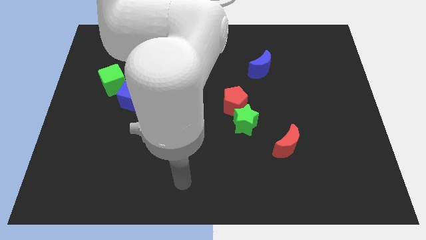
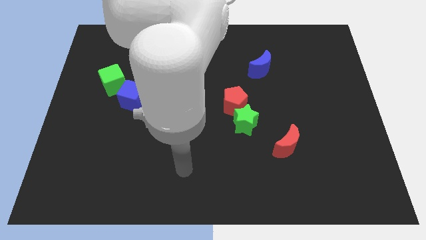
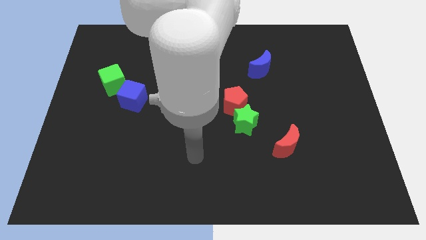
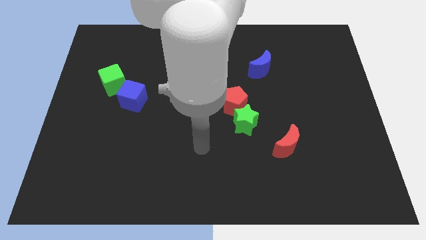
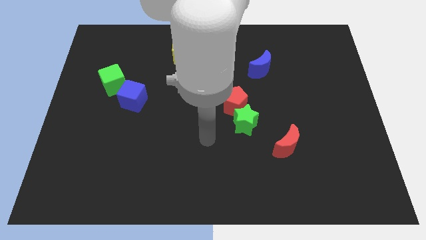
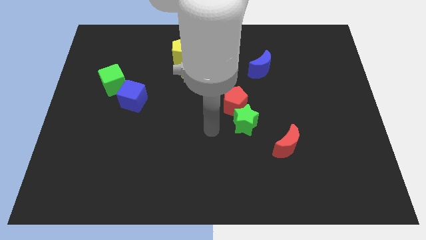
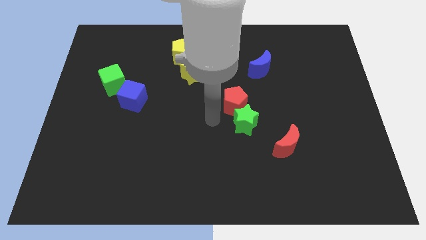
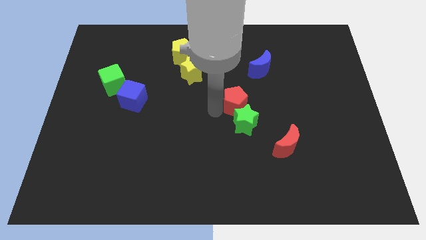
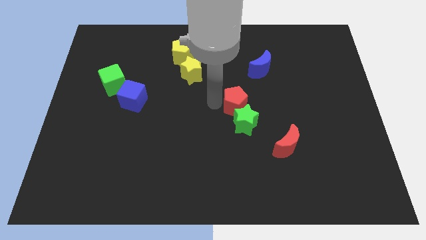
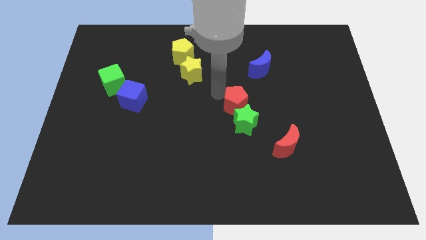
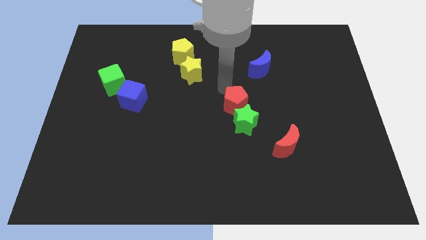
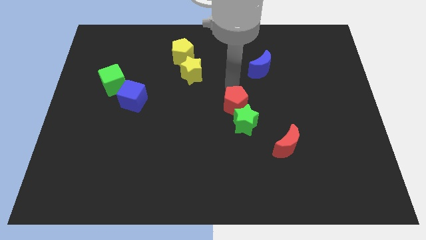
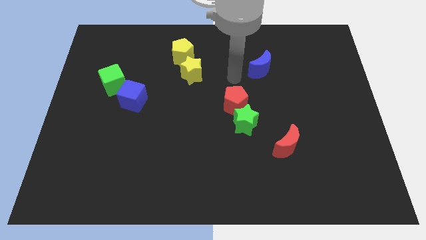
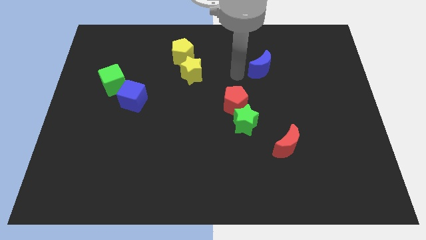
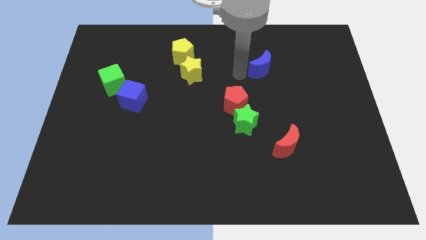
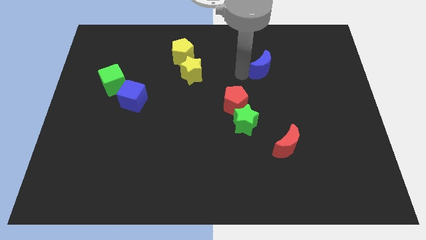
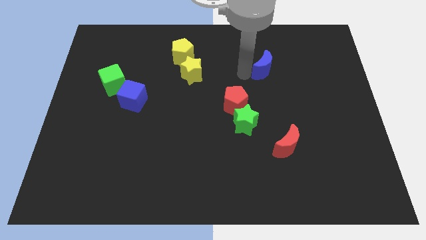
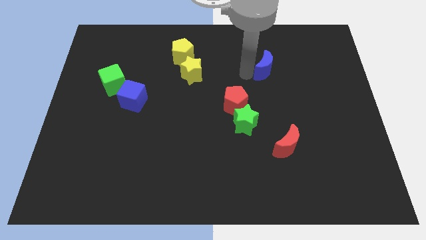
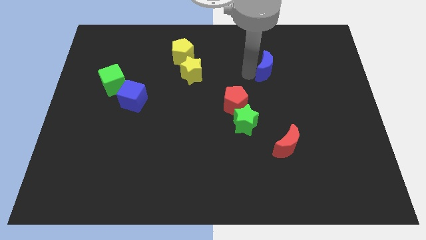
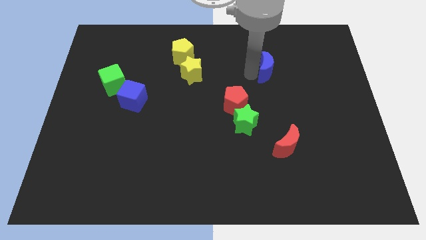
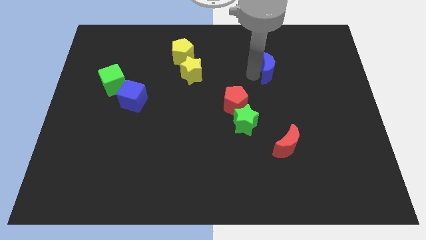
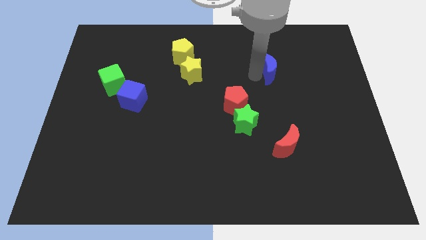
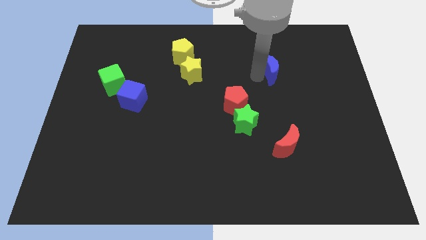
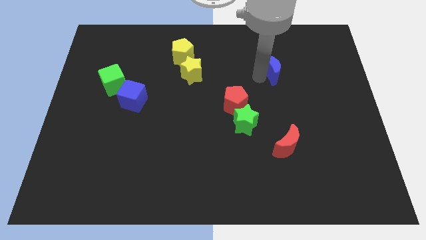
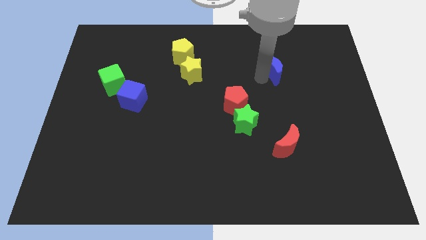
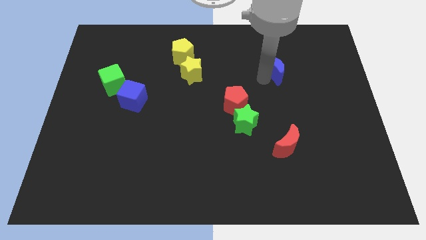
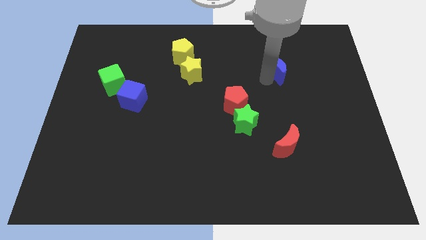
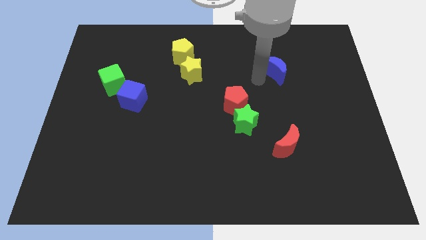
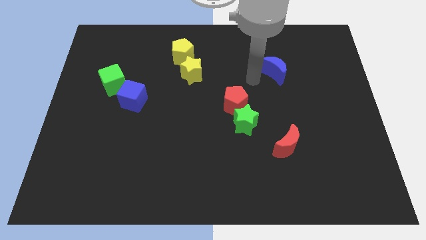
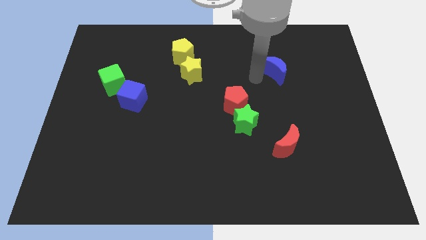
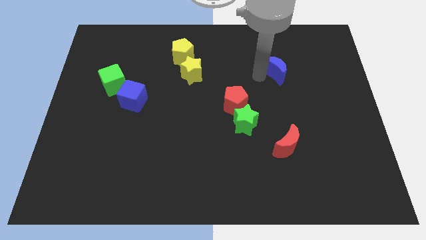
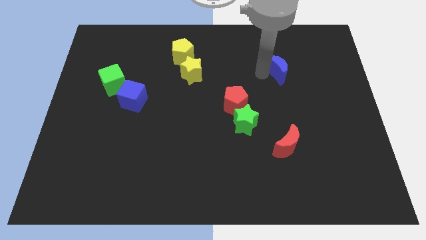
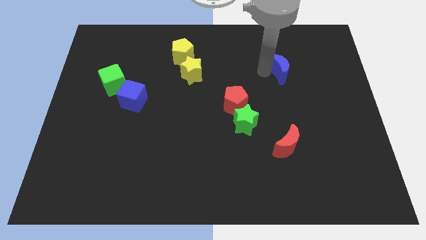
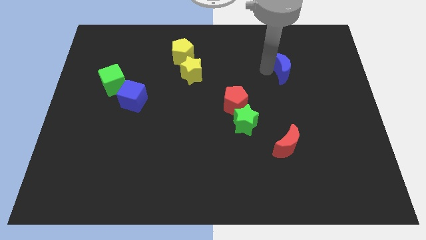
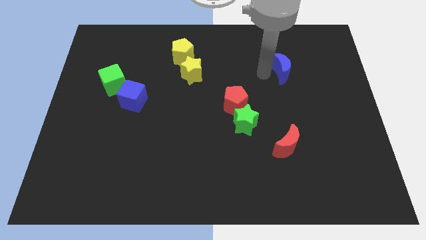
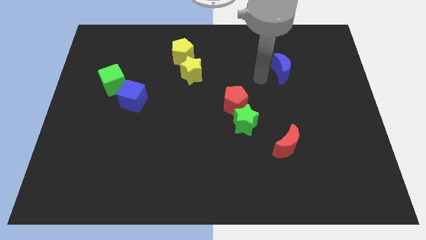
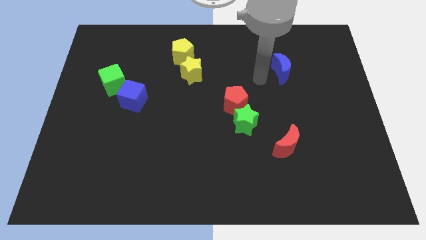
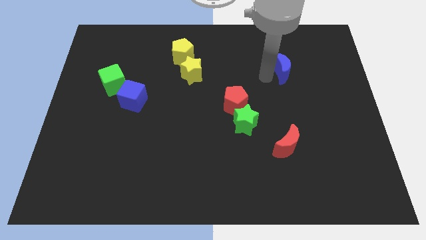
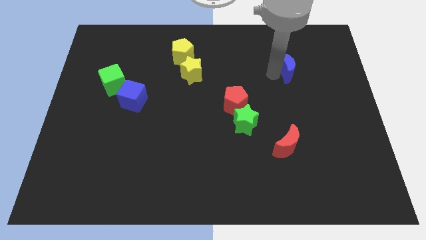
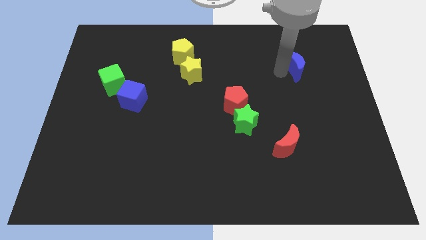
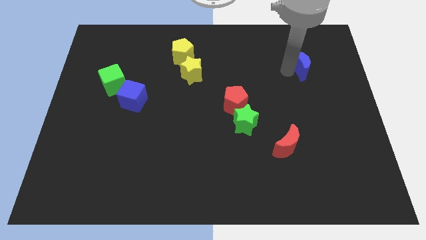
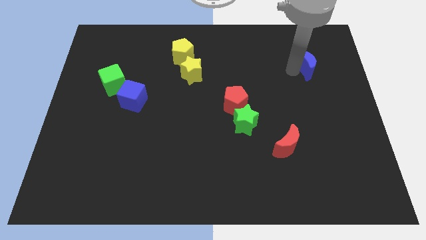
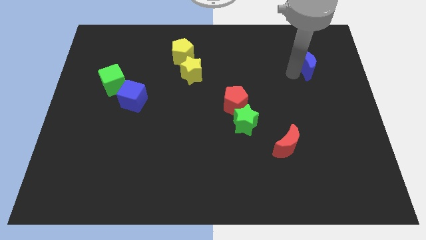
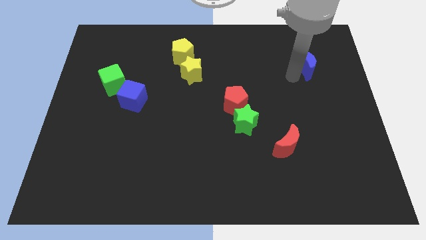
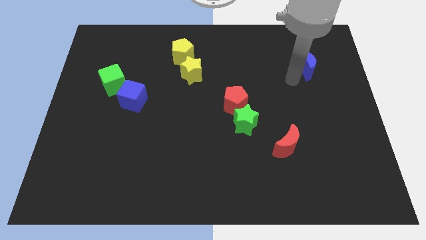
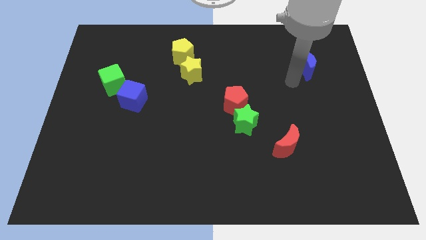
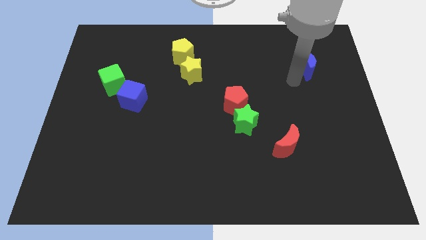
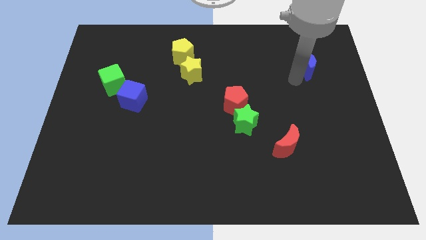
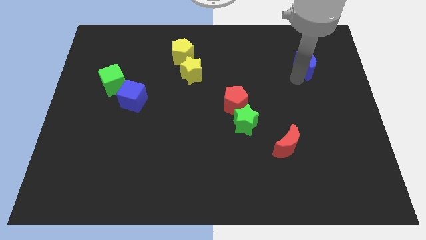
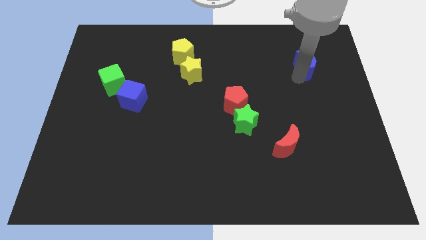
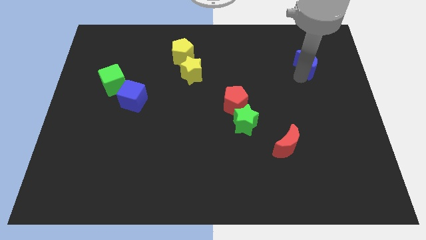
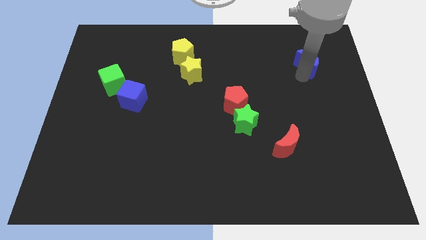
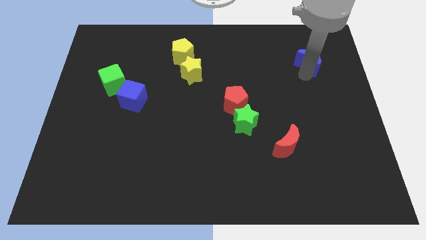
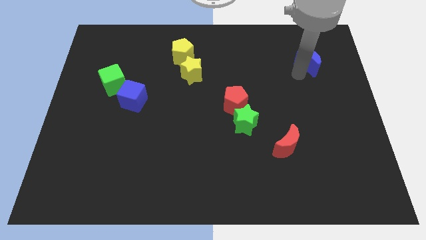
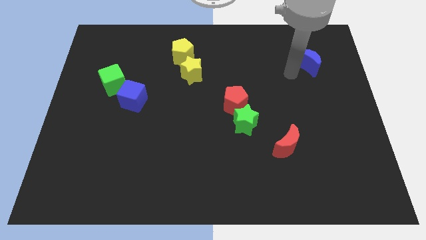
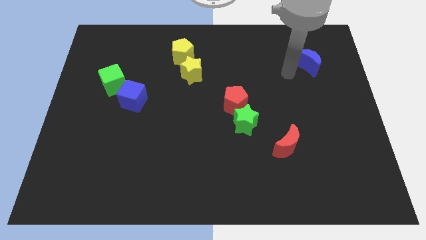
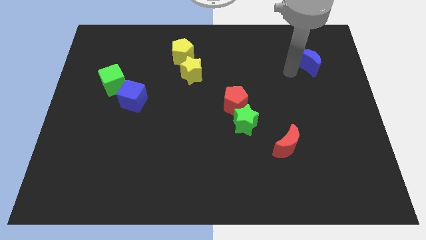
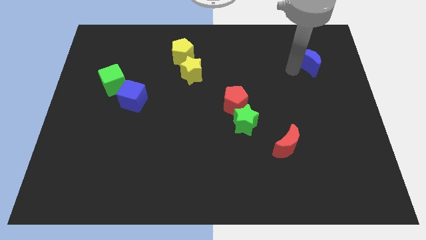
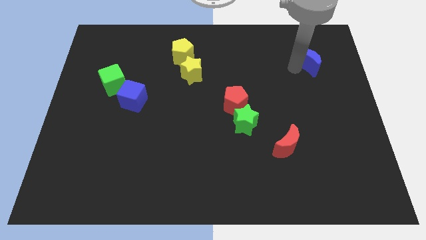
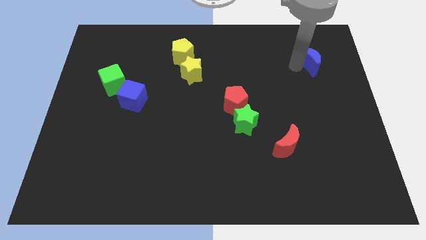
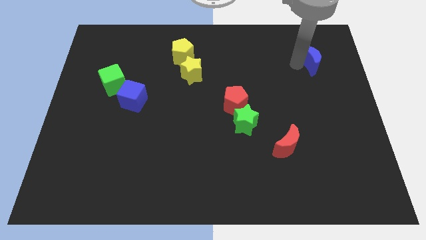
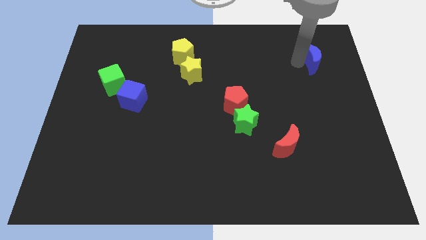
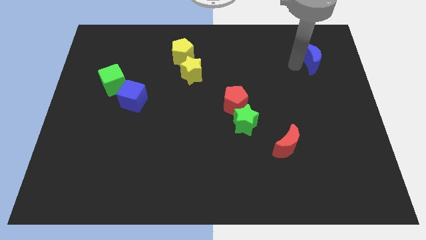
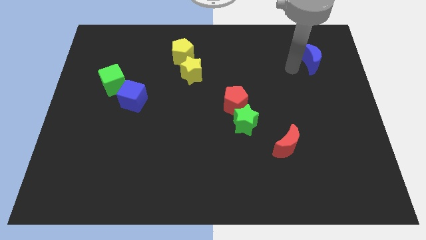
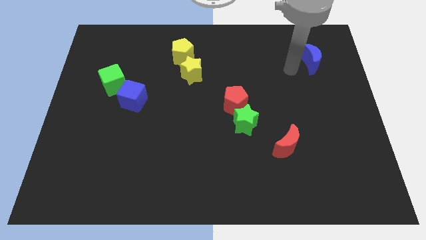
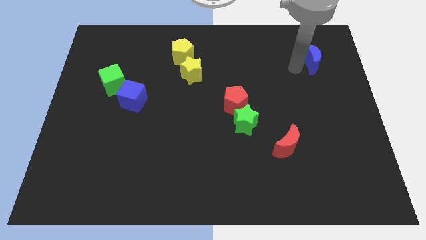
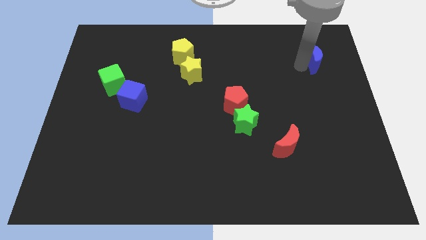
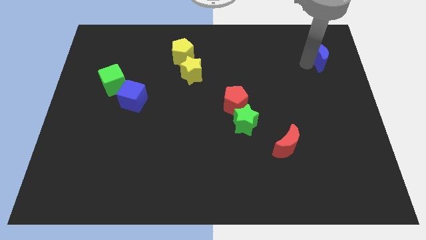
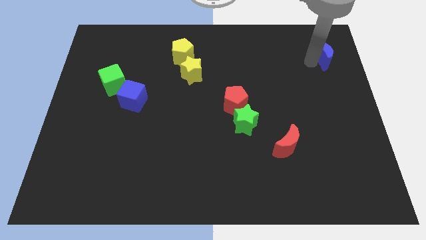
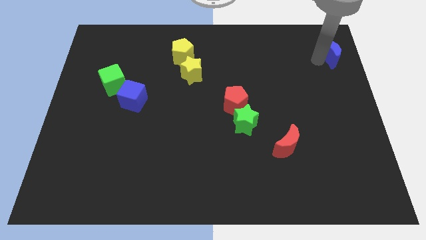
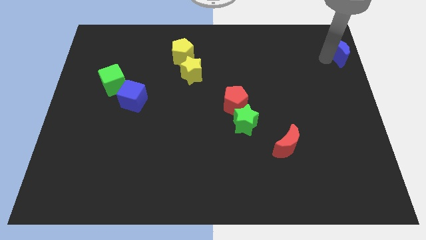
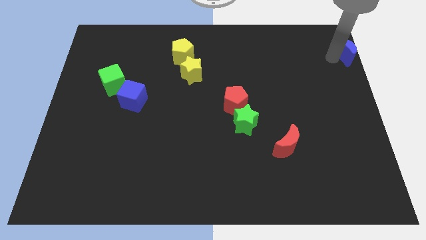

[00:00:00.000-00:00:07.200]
slide the blue moon to the top right of the board

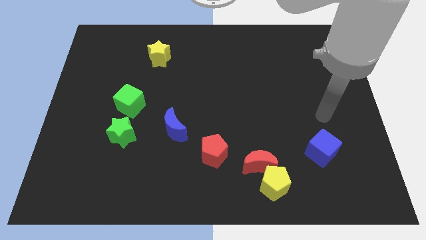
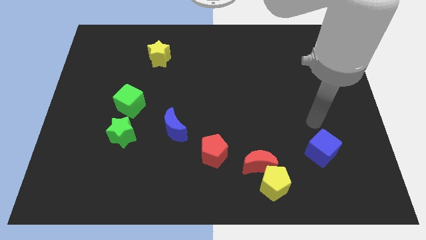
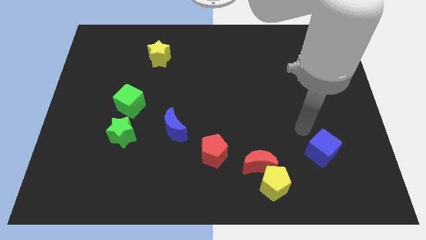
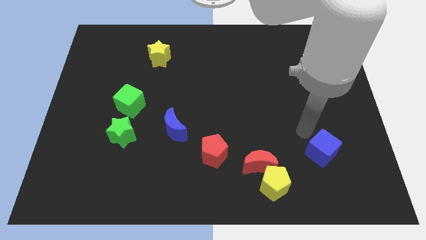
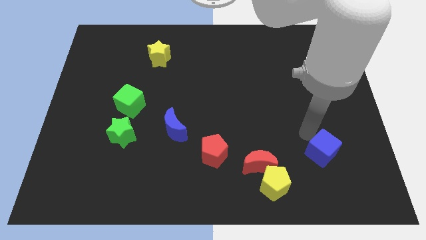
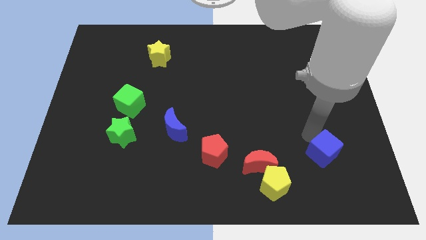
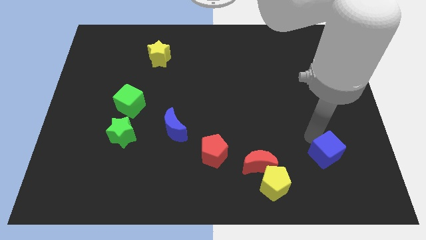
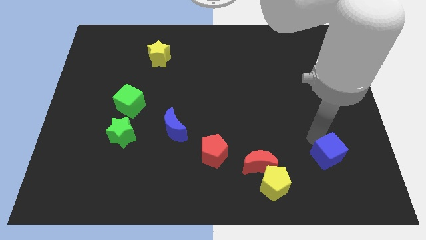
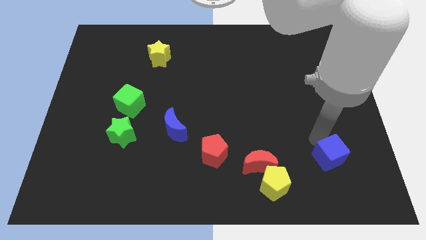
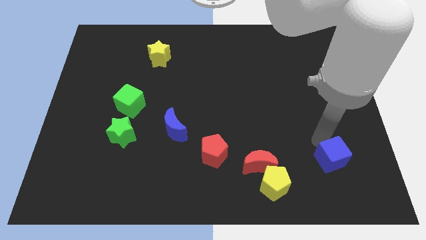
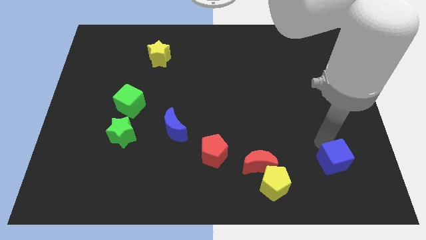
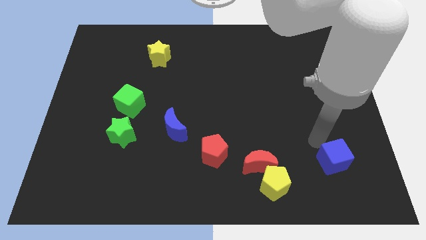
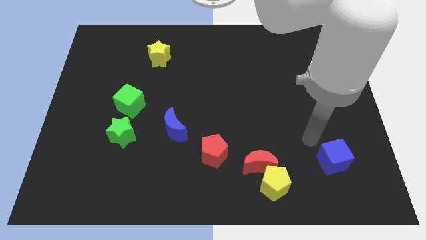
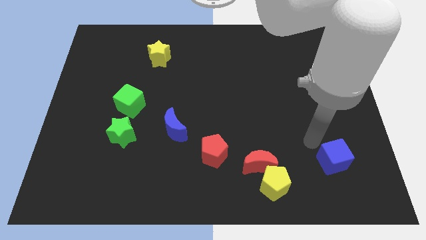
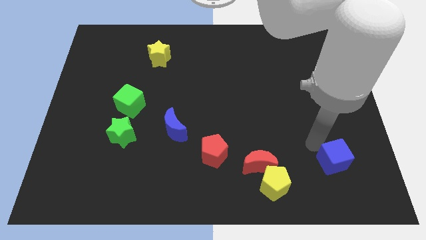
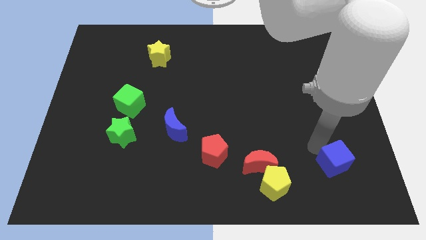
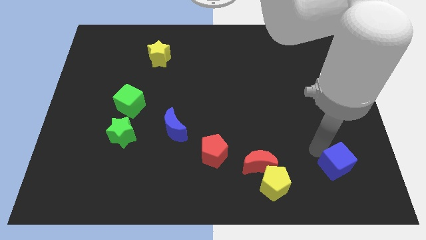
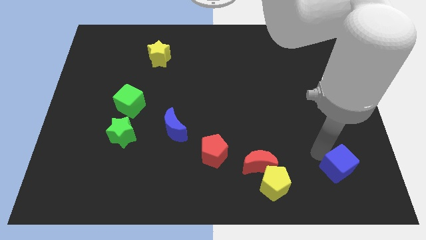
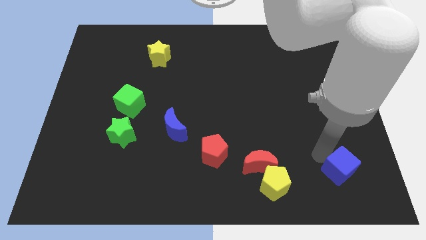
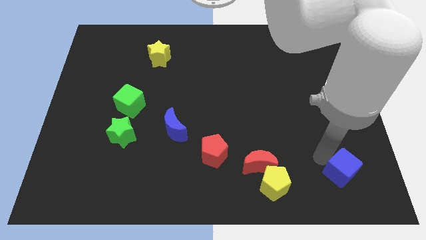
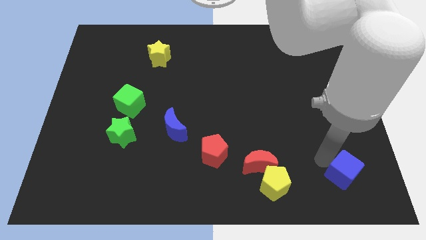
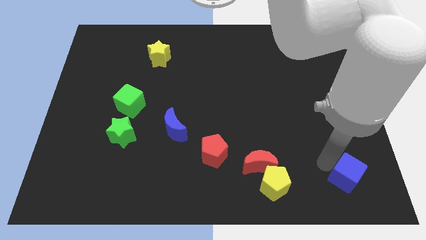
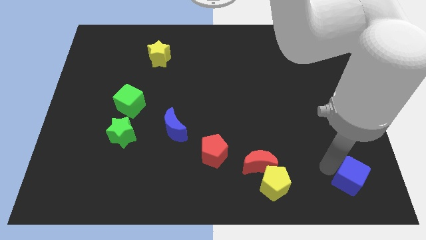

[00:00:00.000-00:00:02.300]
move the blue cube to the bottom right
